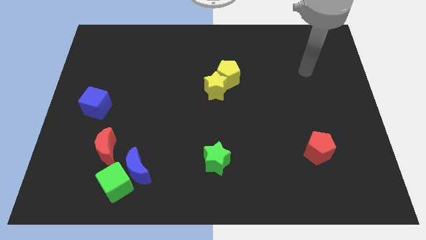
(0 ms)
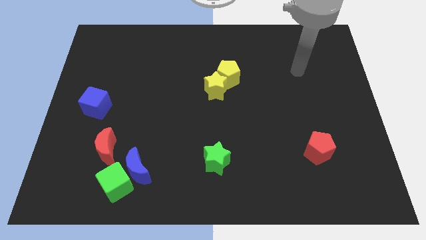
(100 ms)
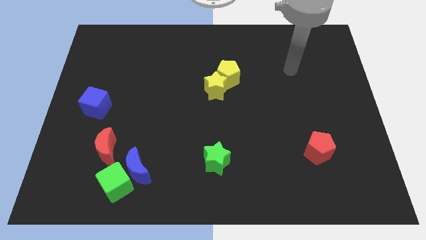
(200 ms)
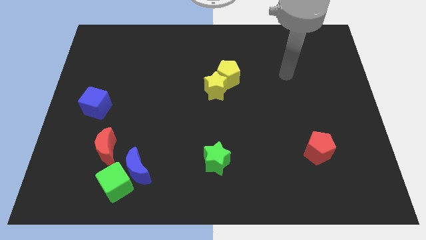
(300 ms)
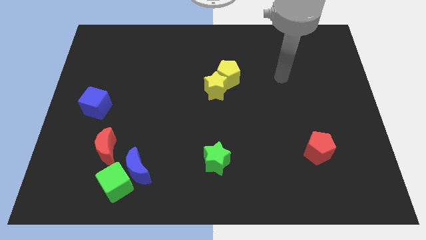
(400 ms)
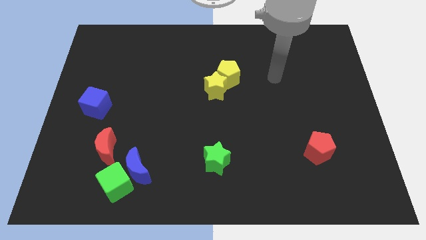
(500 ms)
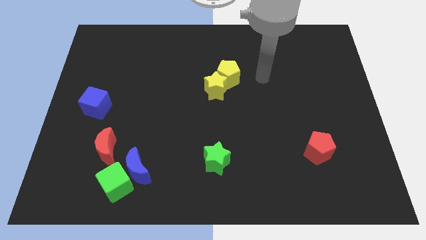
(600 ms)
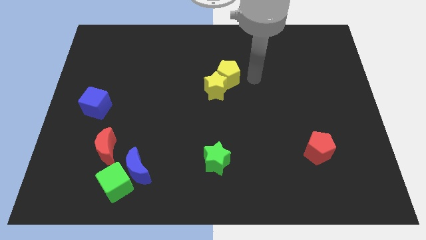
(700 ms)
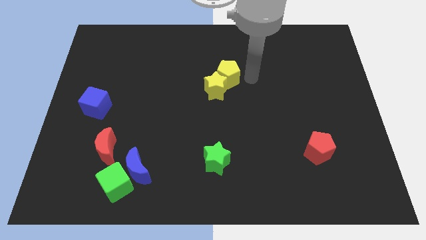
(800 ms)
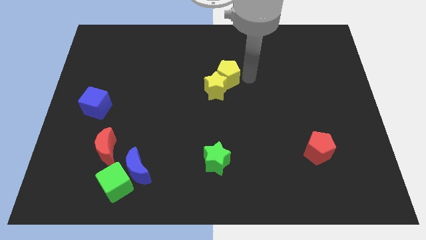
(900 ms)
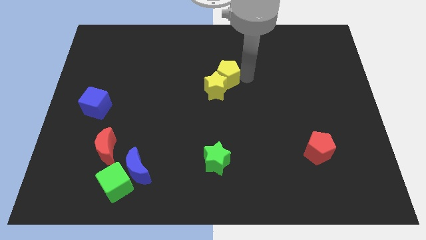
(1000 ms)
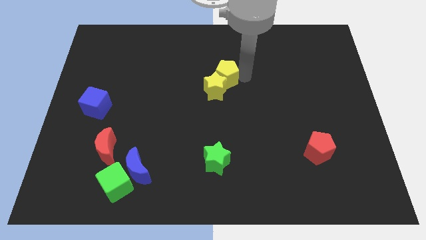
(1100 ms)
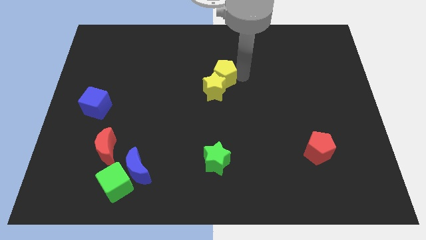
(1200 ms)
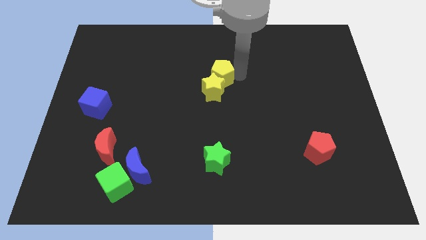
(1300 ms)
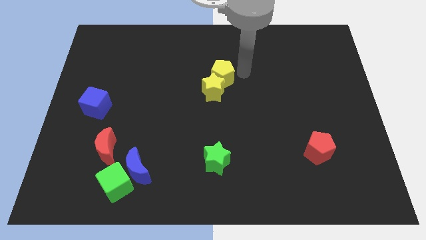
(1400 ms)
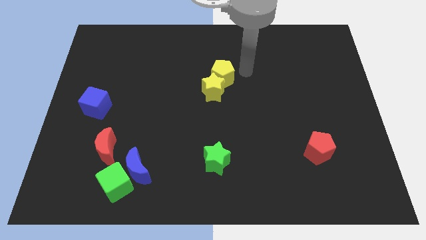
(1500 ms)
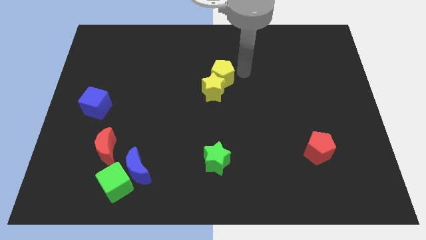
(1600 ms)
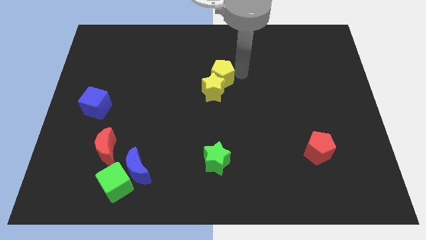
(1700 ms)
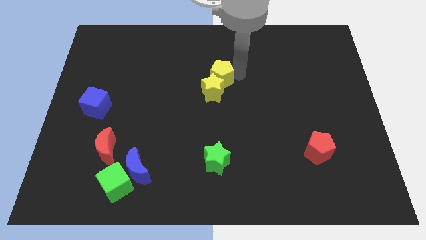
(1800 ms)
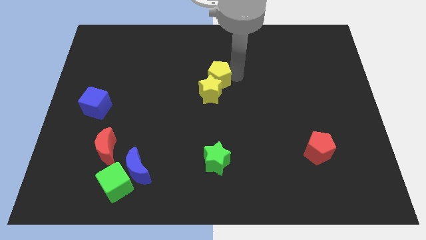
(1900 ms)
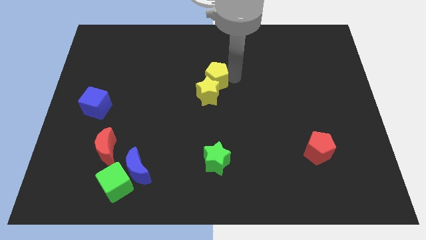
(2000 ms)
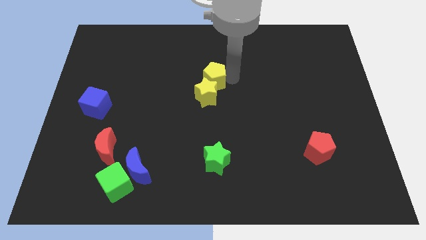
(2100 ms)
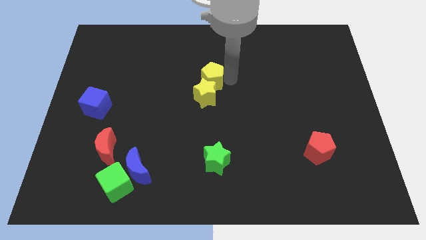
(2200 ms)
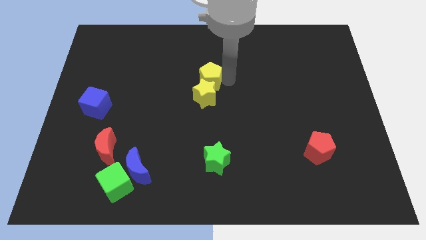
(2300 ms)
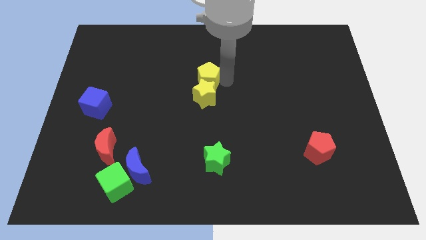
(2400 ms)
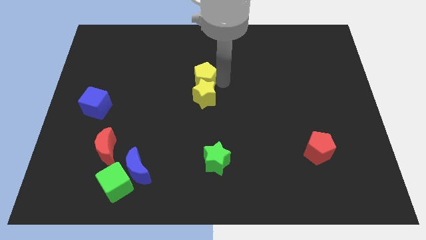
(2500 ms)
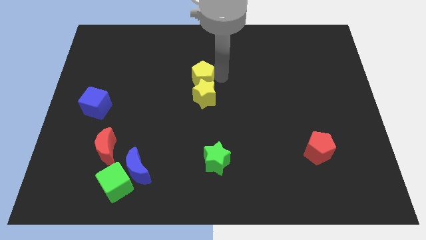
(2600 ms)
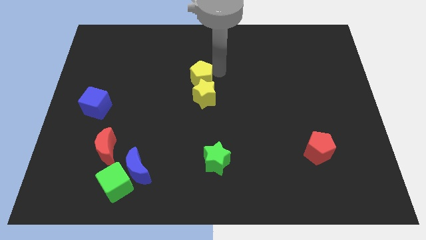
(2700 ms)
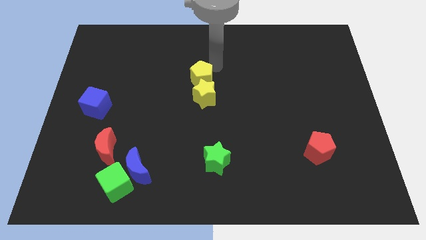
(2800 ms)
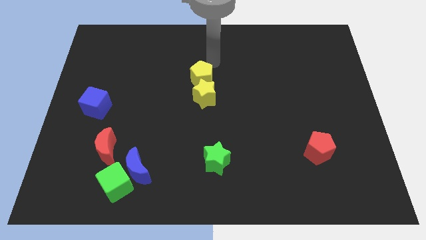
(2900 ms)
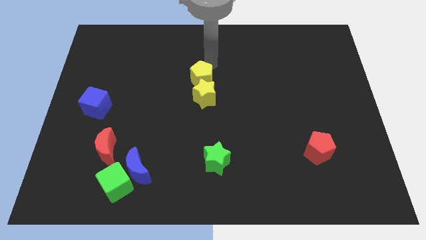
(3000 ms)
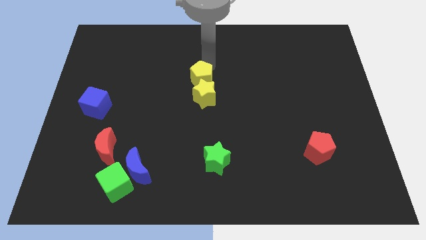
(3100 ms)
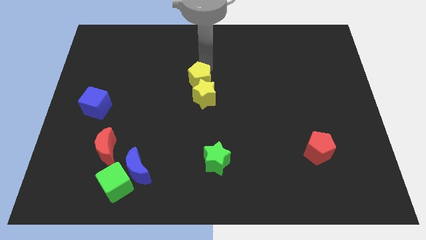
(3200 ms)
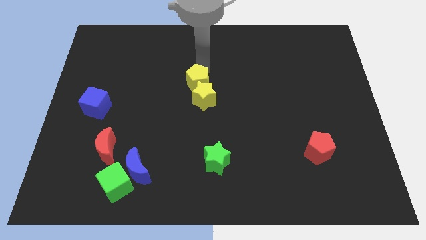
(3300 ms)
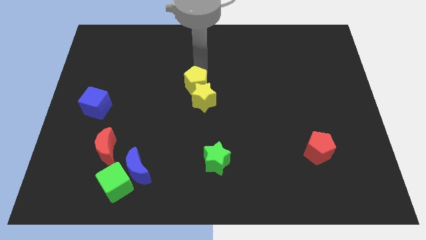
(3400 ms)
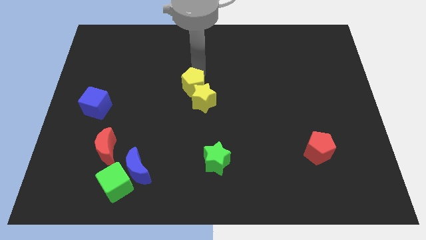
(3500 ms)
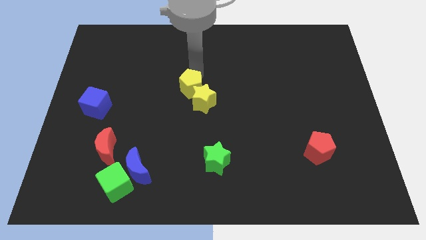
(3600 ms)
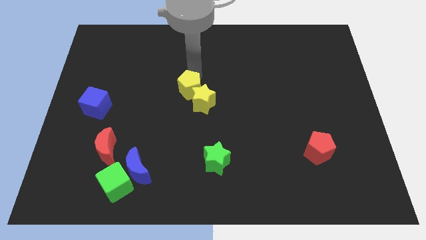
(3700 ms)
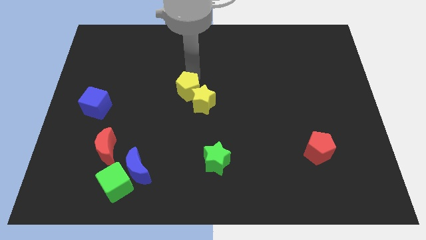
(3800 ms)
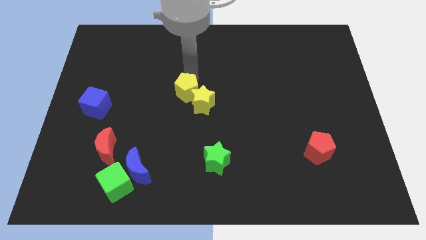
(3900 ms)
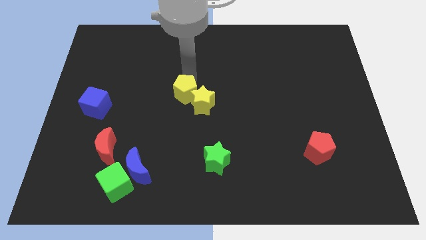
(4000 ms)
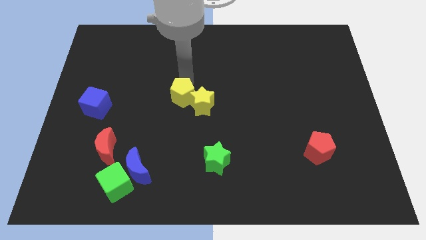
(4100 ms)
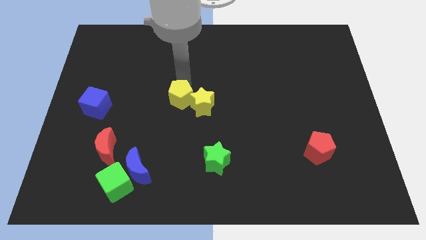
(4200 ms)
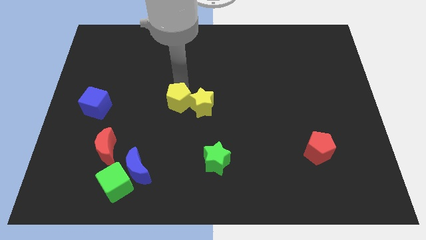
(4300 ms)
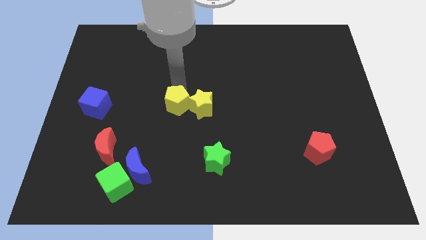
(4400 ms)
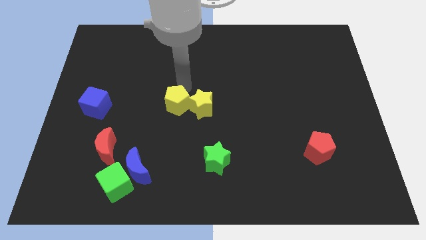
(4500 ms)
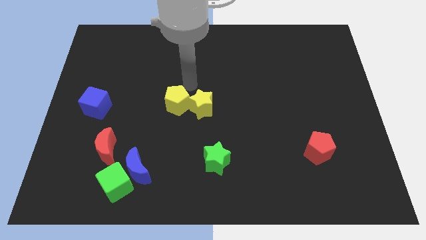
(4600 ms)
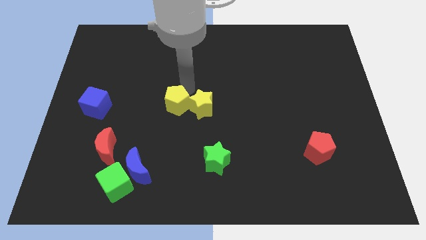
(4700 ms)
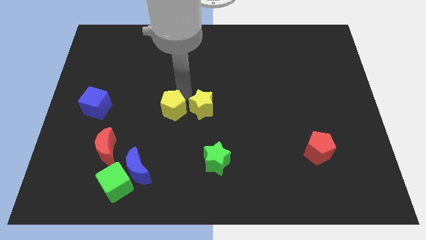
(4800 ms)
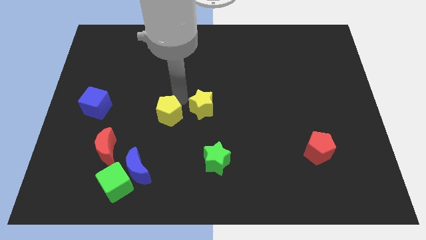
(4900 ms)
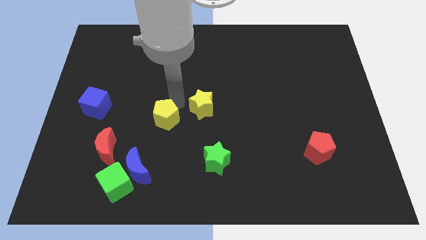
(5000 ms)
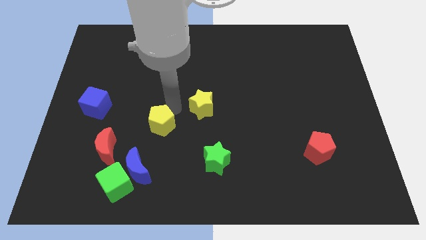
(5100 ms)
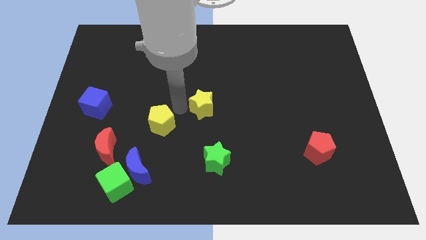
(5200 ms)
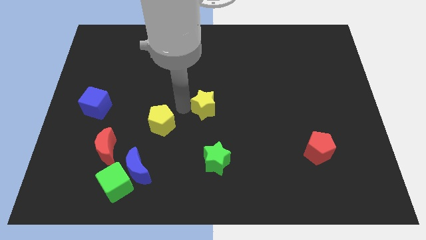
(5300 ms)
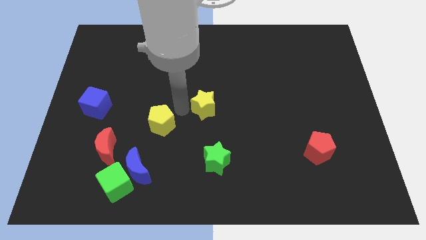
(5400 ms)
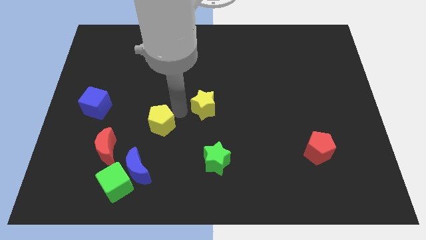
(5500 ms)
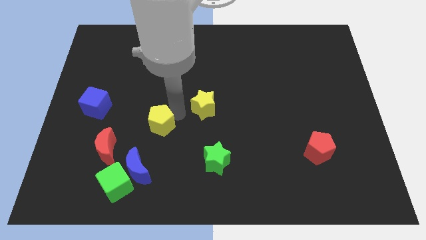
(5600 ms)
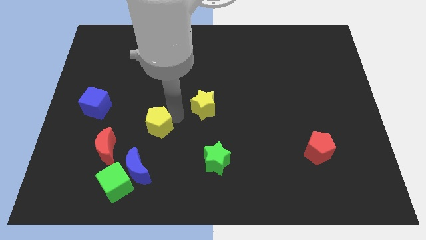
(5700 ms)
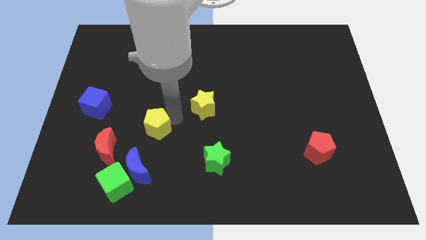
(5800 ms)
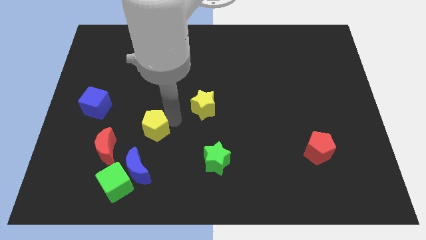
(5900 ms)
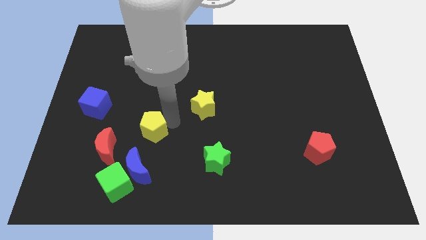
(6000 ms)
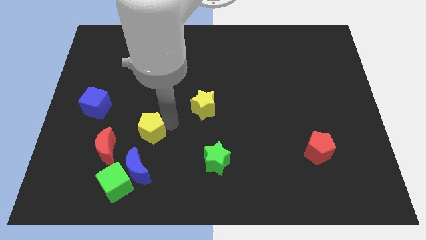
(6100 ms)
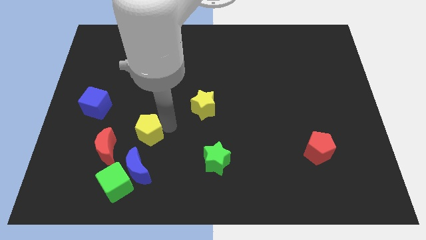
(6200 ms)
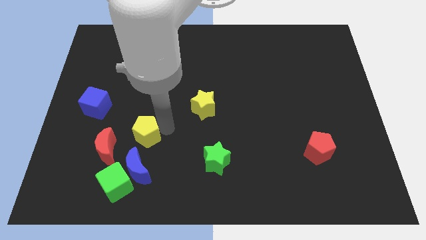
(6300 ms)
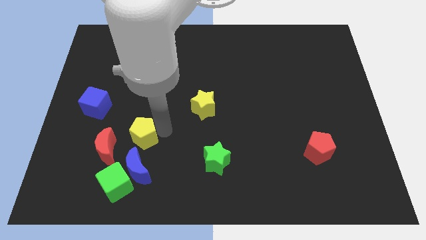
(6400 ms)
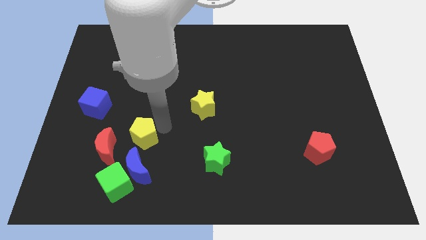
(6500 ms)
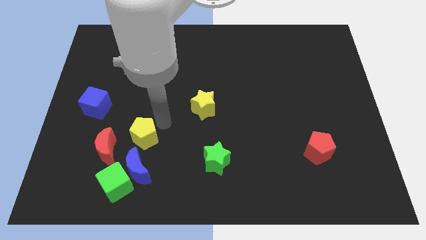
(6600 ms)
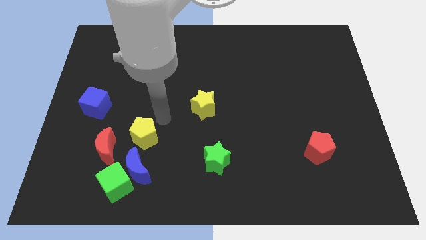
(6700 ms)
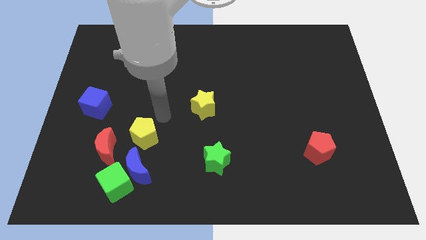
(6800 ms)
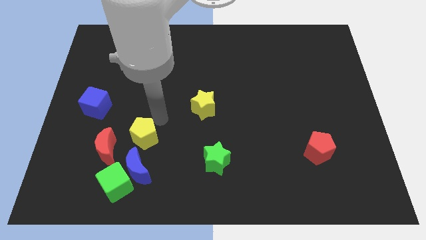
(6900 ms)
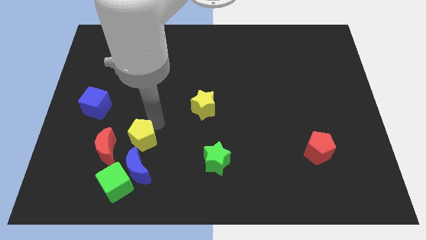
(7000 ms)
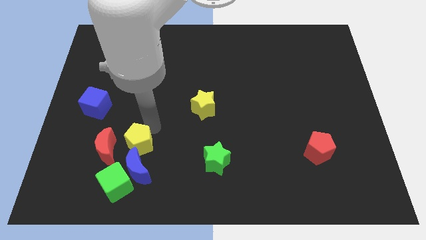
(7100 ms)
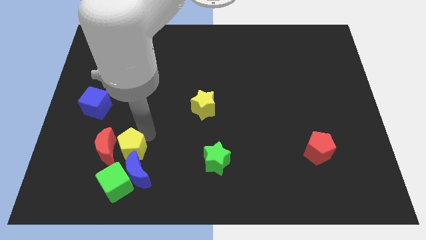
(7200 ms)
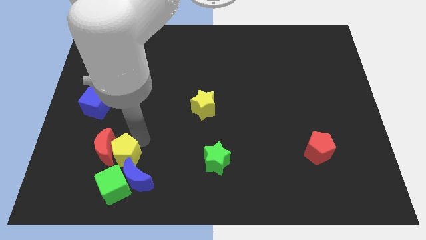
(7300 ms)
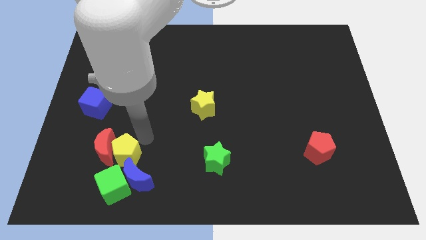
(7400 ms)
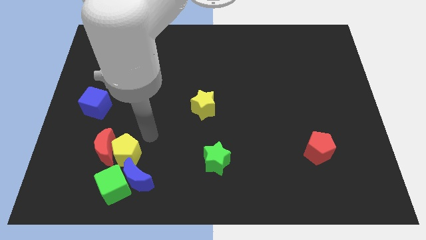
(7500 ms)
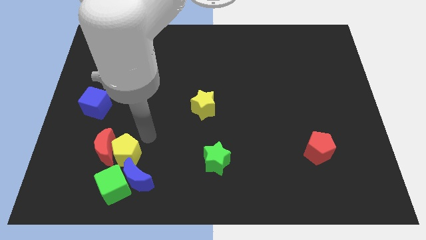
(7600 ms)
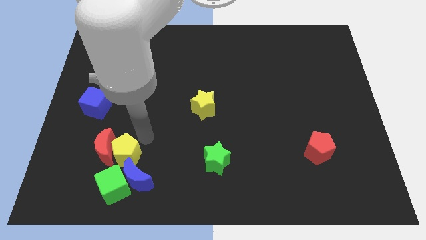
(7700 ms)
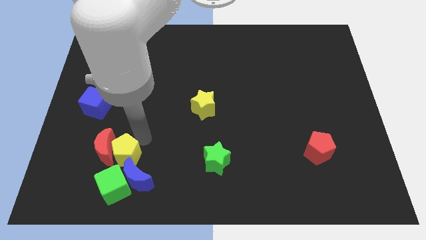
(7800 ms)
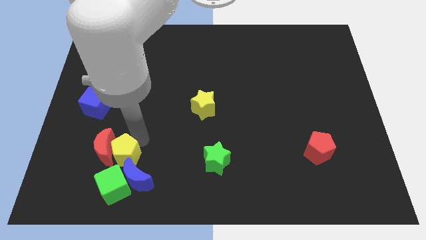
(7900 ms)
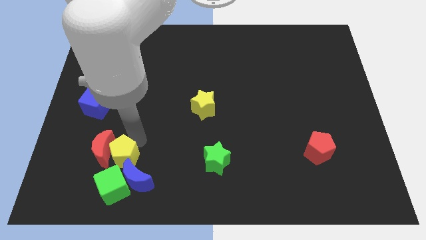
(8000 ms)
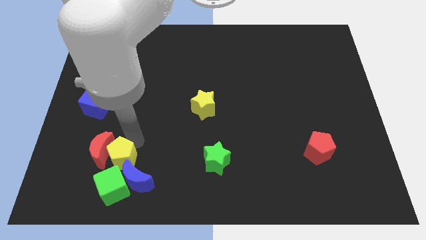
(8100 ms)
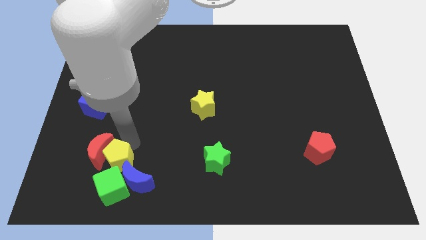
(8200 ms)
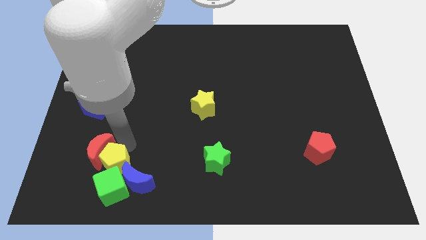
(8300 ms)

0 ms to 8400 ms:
put the yellow pentagon to the left side of the blue moon
